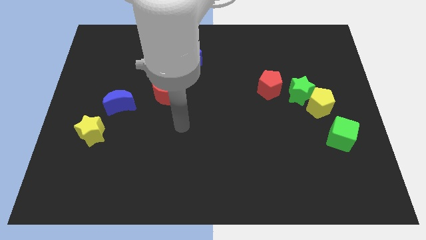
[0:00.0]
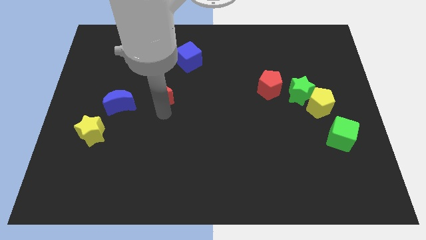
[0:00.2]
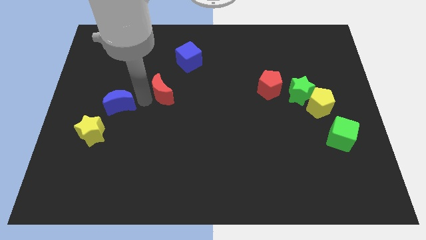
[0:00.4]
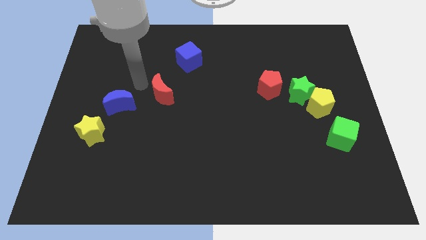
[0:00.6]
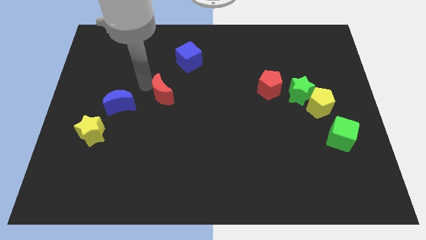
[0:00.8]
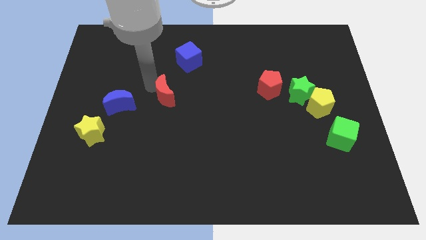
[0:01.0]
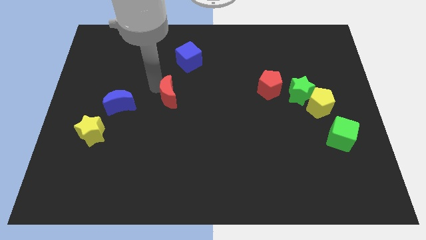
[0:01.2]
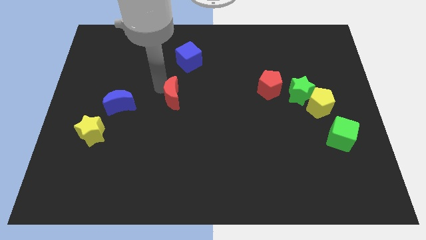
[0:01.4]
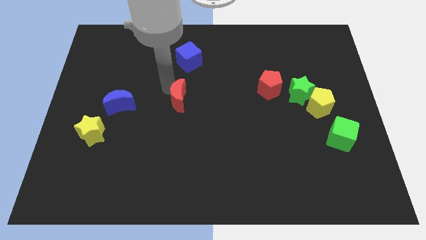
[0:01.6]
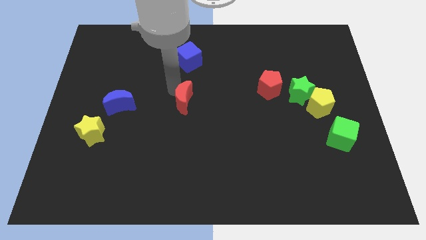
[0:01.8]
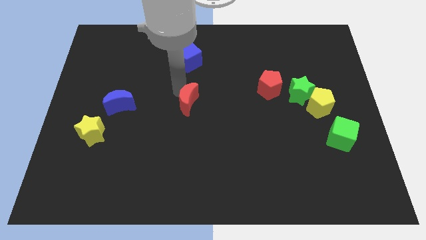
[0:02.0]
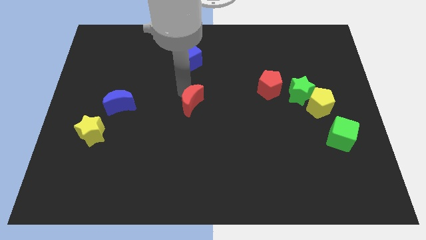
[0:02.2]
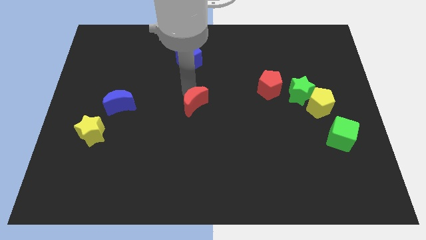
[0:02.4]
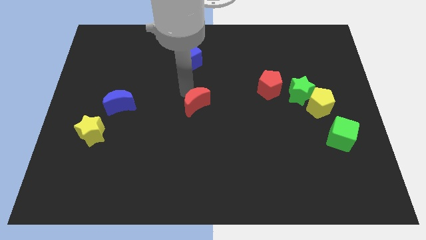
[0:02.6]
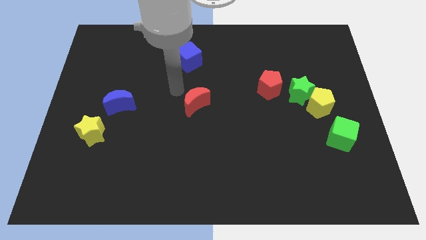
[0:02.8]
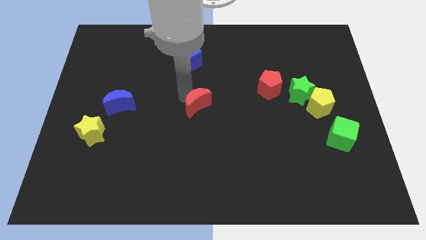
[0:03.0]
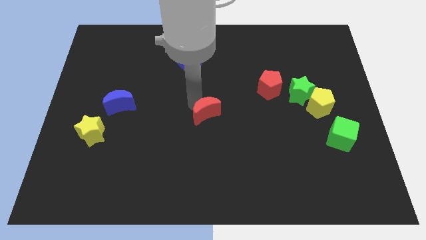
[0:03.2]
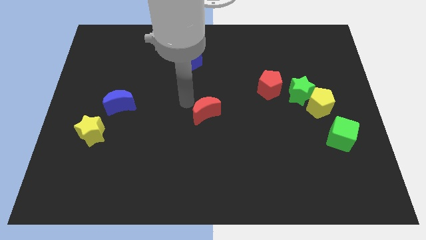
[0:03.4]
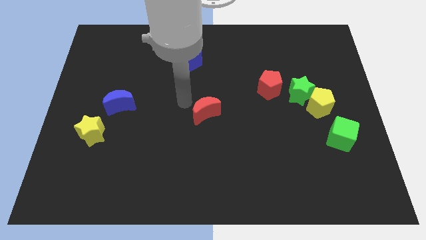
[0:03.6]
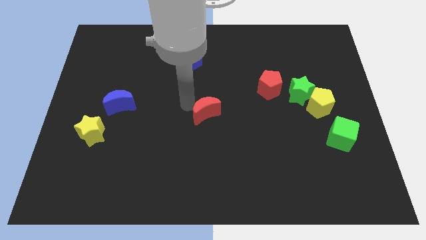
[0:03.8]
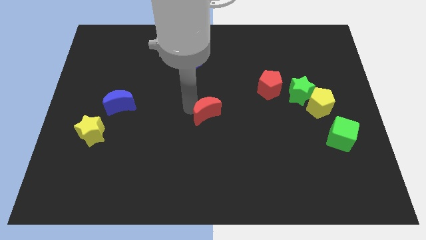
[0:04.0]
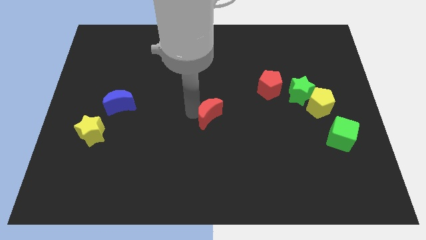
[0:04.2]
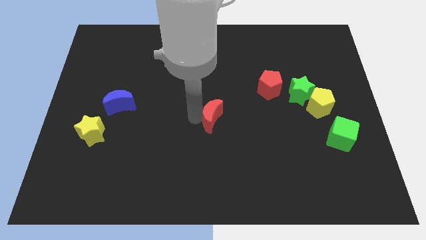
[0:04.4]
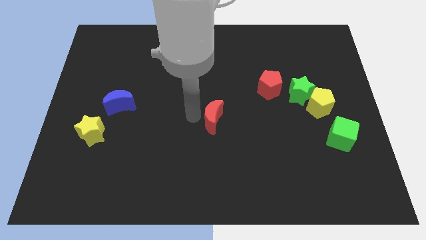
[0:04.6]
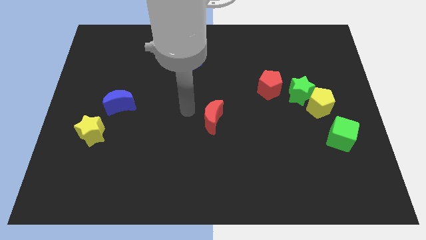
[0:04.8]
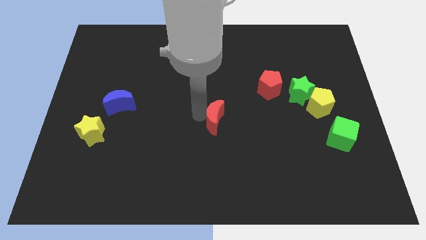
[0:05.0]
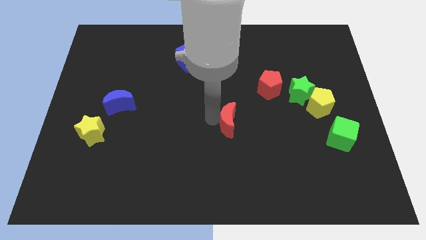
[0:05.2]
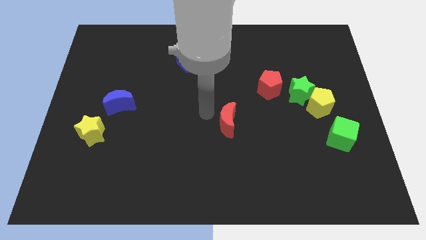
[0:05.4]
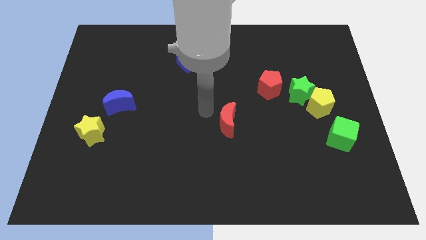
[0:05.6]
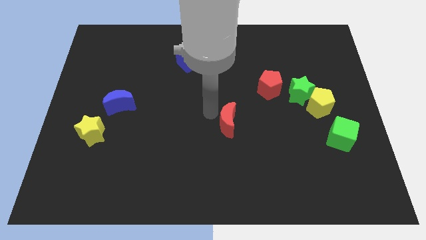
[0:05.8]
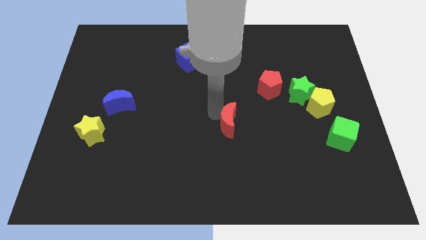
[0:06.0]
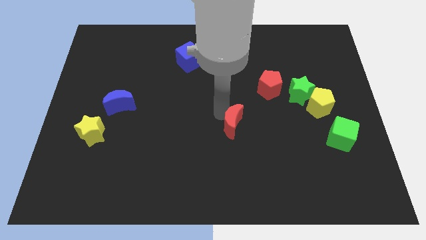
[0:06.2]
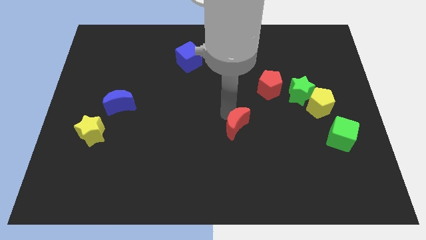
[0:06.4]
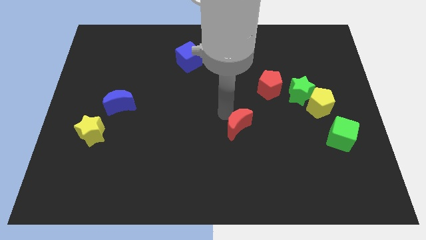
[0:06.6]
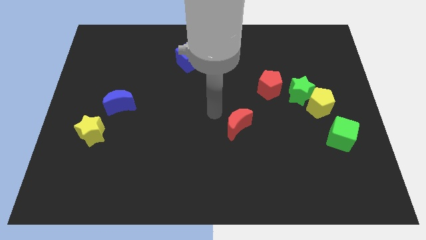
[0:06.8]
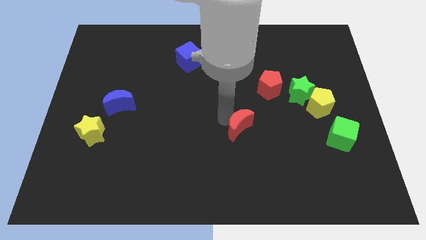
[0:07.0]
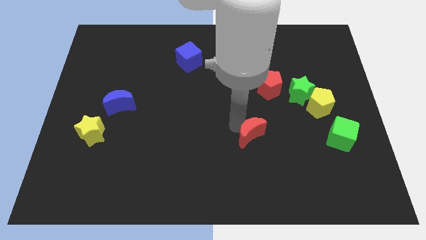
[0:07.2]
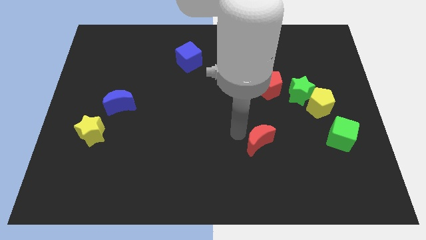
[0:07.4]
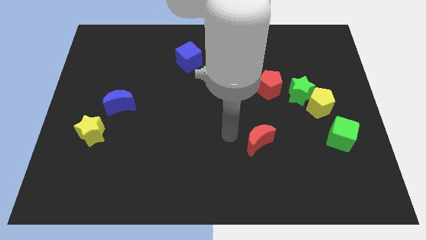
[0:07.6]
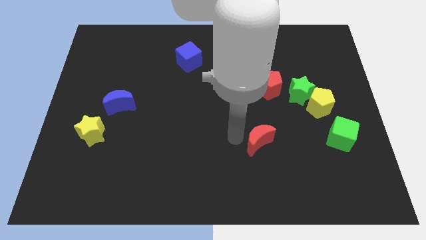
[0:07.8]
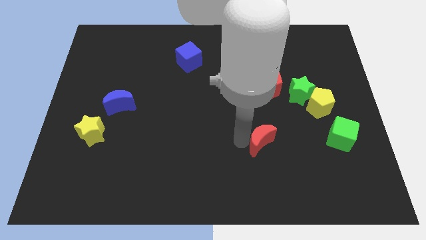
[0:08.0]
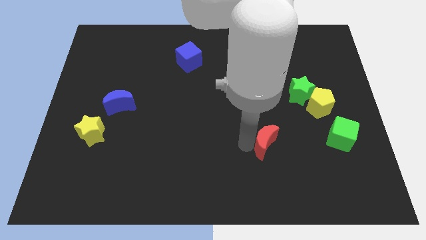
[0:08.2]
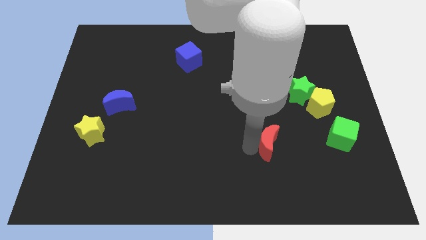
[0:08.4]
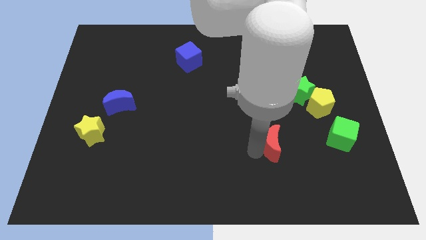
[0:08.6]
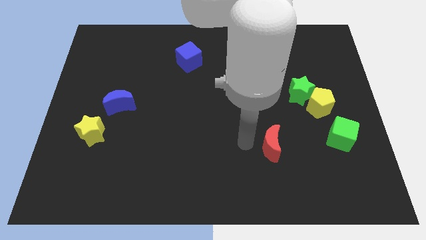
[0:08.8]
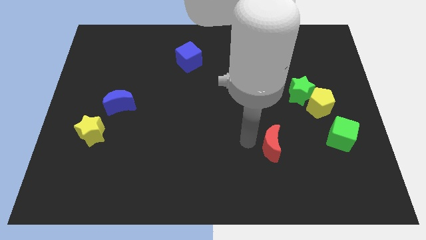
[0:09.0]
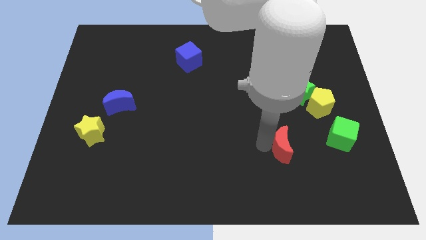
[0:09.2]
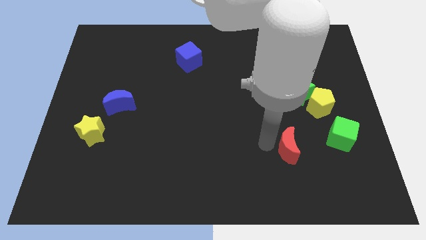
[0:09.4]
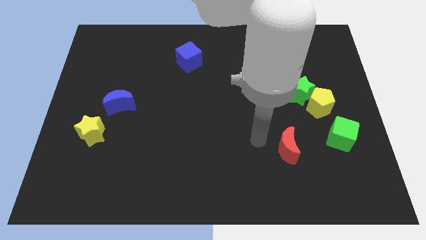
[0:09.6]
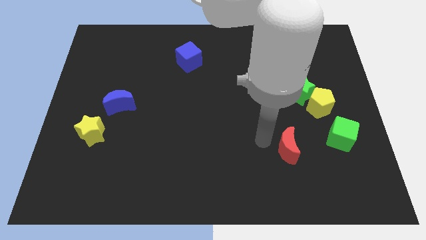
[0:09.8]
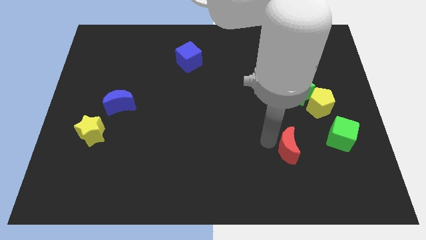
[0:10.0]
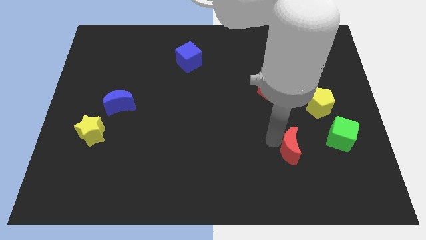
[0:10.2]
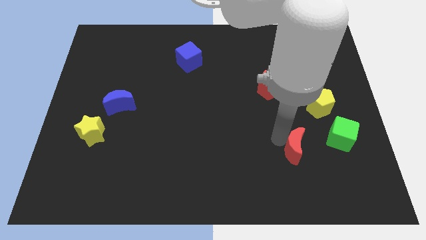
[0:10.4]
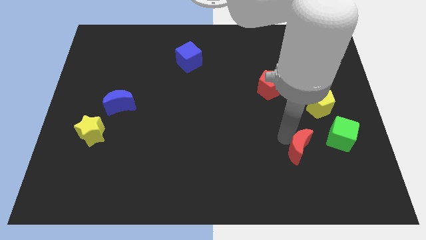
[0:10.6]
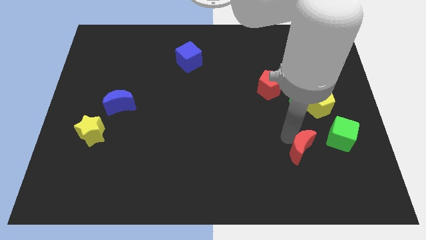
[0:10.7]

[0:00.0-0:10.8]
slide the red moon to the bottom left of the green cube

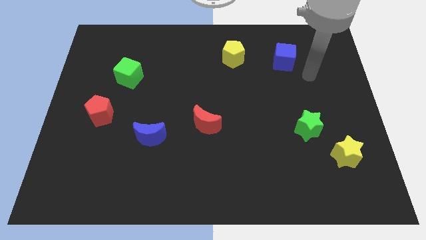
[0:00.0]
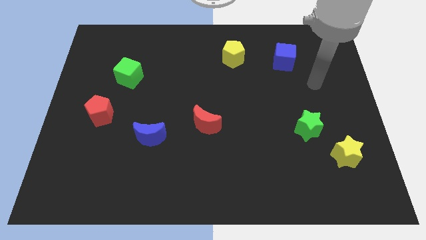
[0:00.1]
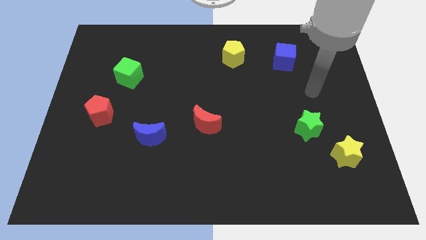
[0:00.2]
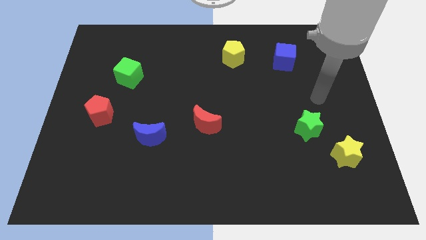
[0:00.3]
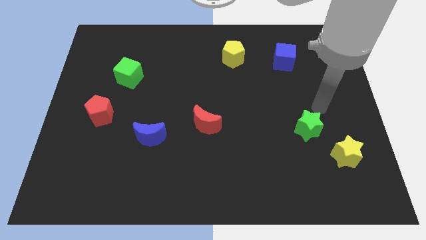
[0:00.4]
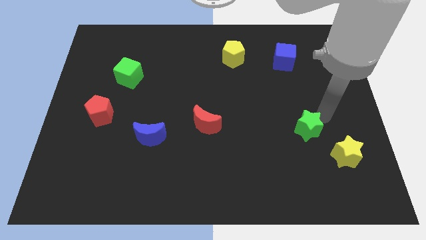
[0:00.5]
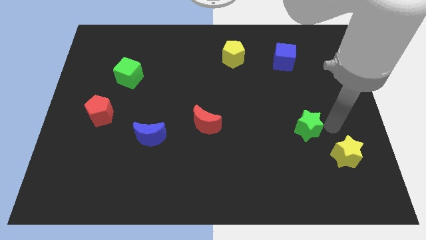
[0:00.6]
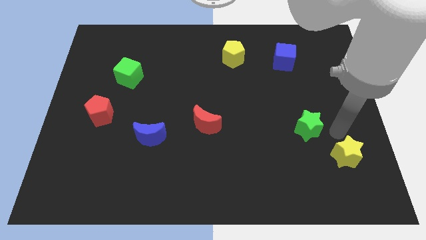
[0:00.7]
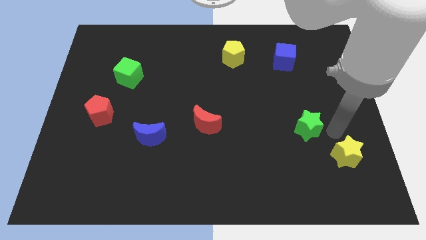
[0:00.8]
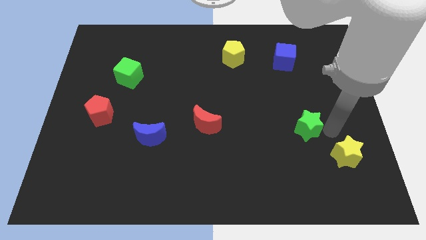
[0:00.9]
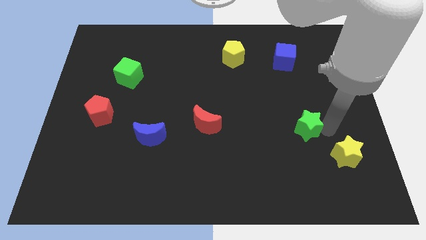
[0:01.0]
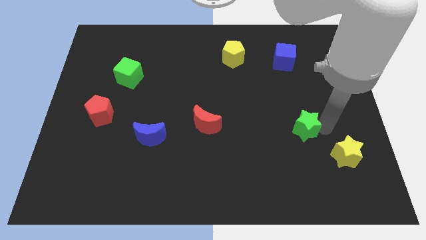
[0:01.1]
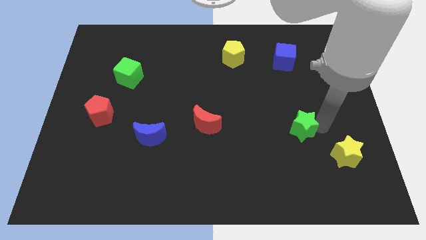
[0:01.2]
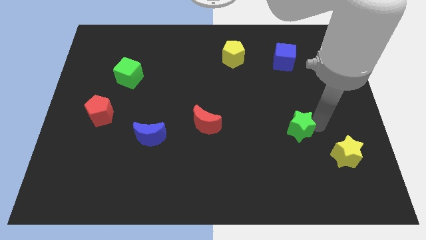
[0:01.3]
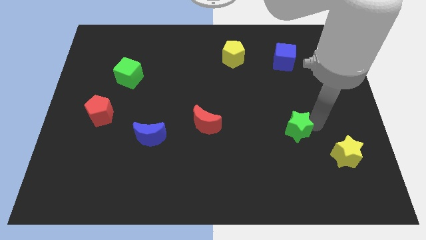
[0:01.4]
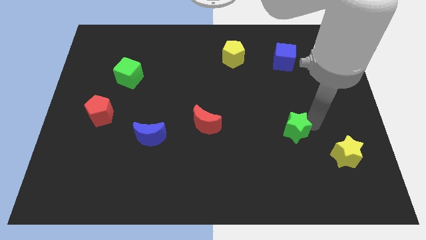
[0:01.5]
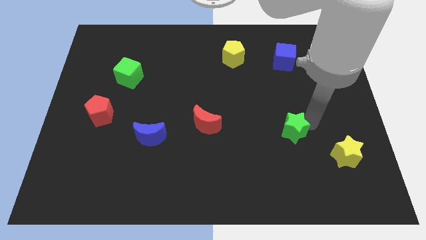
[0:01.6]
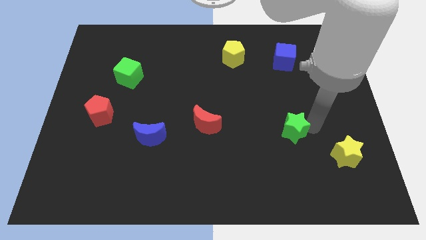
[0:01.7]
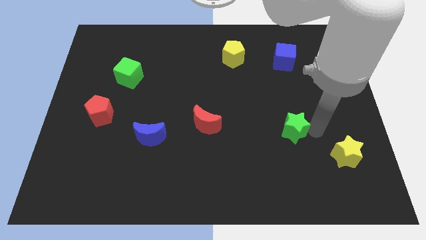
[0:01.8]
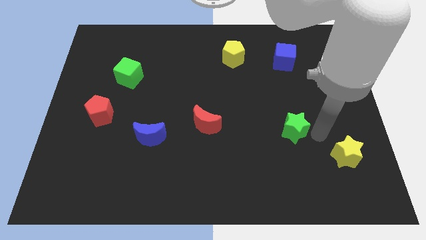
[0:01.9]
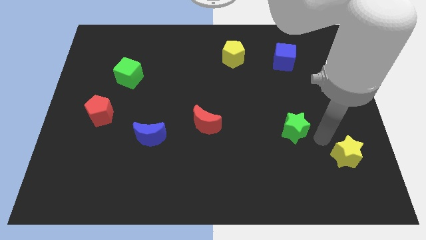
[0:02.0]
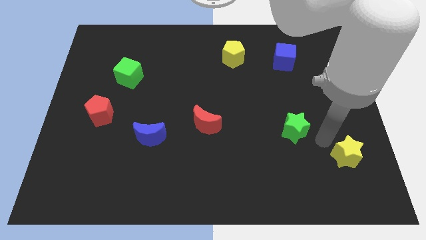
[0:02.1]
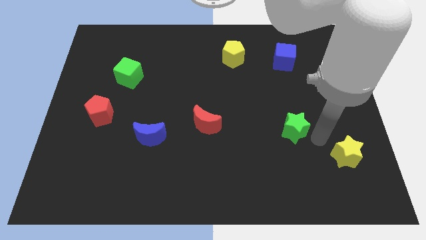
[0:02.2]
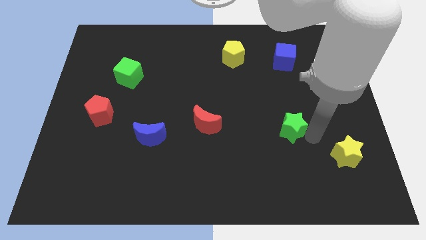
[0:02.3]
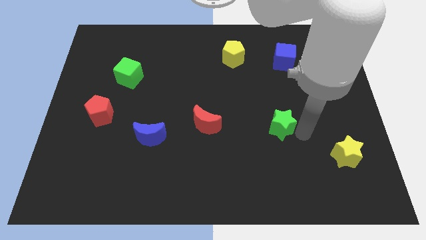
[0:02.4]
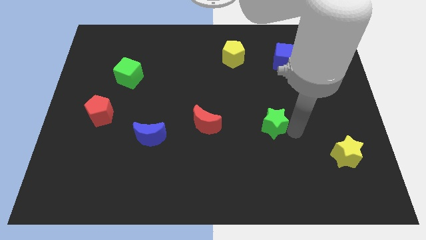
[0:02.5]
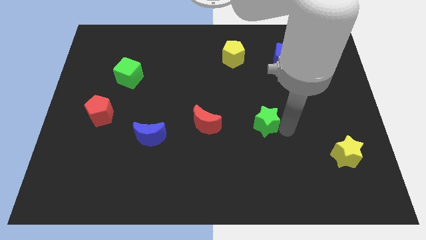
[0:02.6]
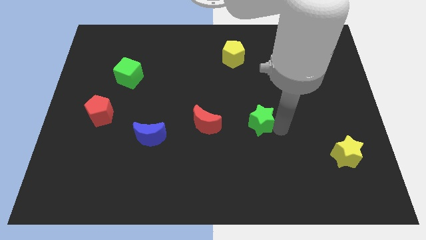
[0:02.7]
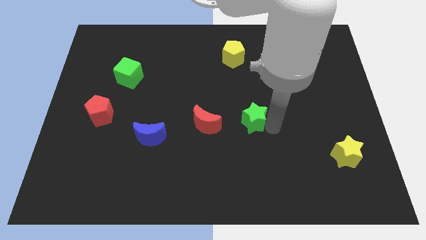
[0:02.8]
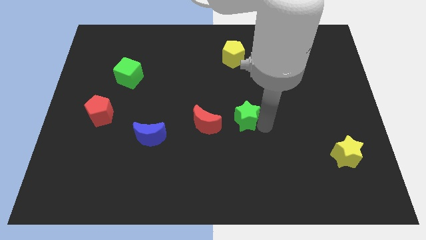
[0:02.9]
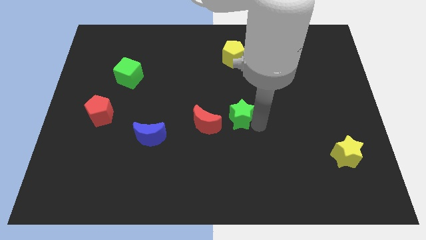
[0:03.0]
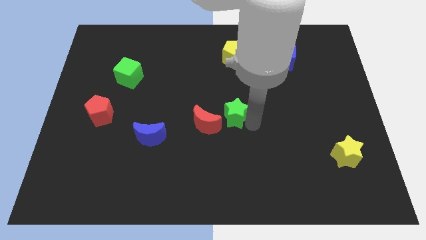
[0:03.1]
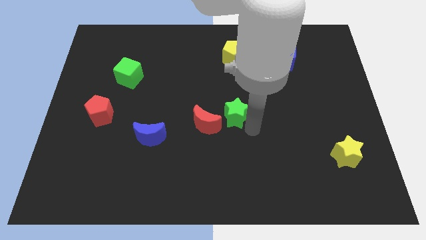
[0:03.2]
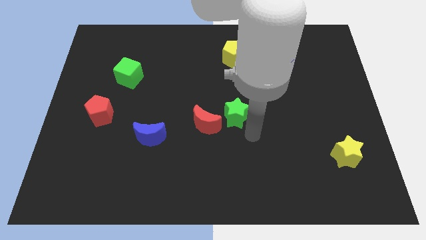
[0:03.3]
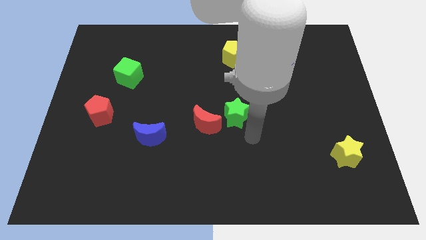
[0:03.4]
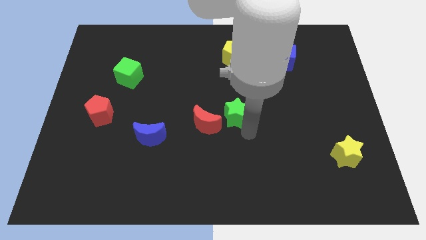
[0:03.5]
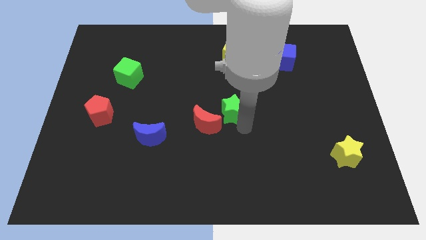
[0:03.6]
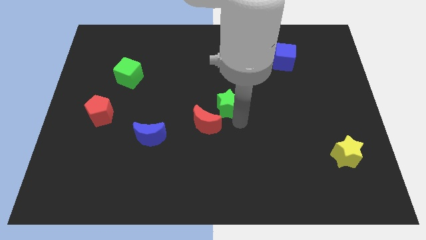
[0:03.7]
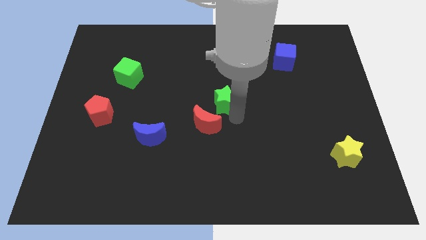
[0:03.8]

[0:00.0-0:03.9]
push the green star above the red moon
